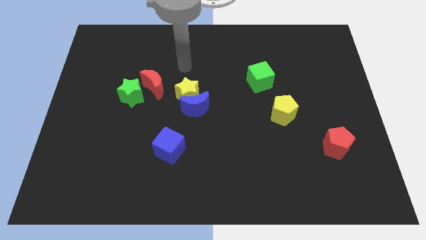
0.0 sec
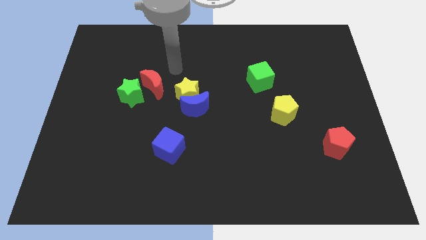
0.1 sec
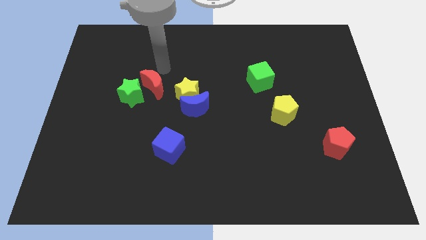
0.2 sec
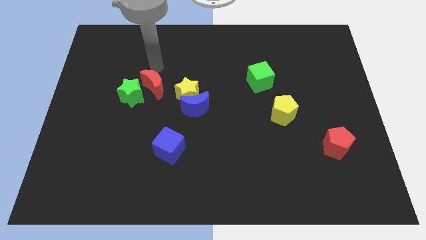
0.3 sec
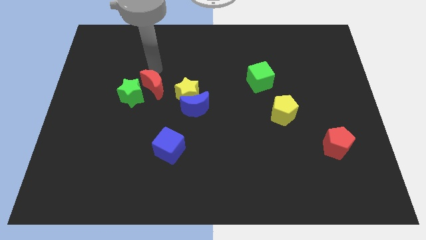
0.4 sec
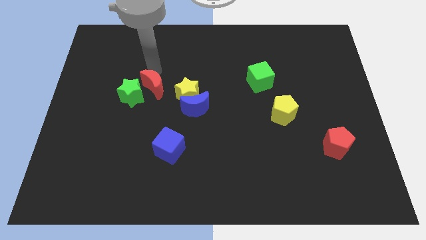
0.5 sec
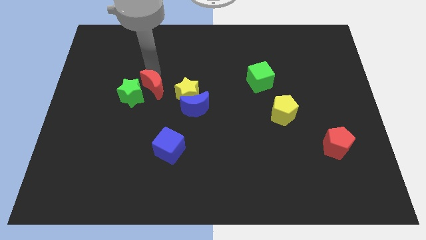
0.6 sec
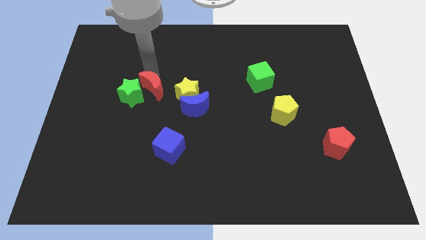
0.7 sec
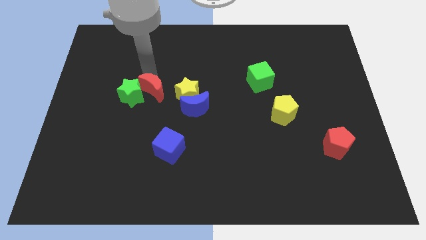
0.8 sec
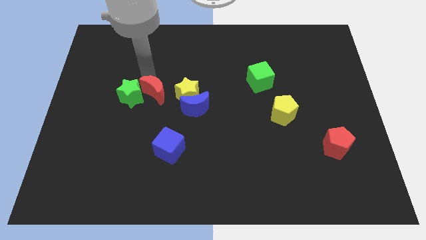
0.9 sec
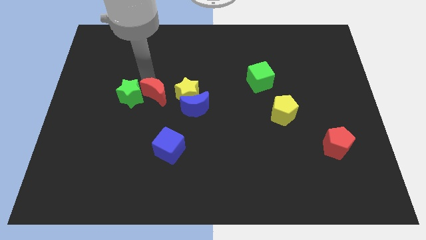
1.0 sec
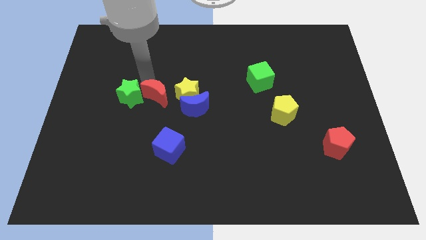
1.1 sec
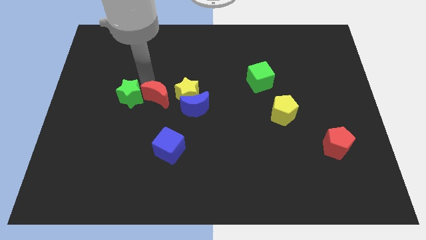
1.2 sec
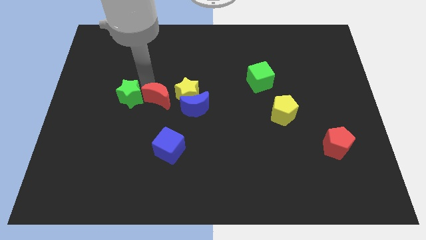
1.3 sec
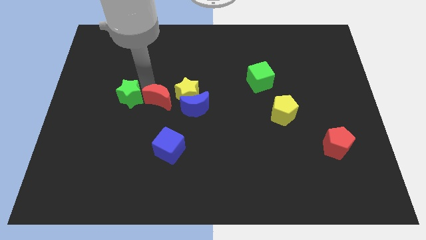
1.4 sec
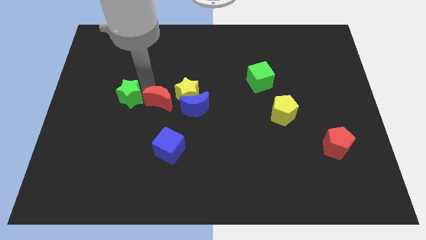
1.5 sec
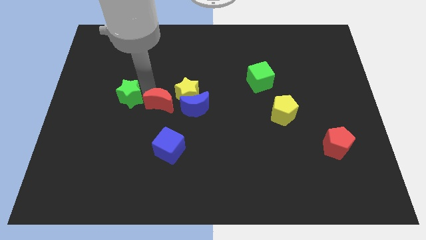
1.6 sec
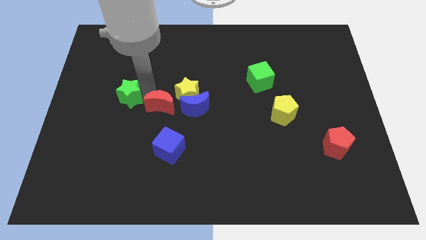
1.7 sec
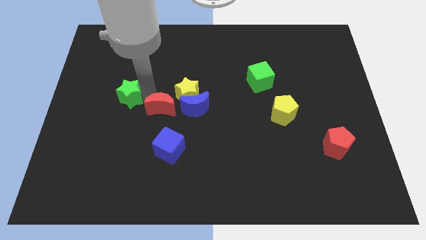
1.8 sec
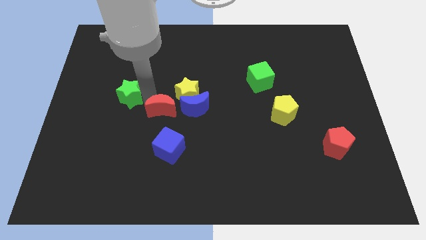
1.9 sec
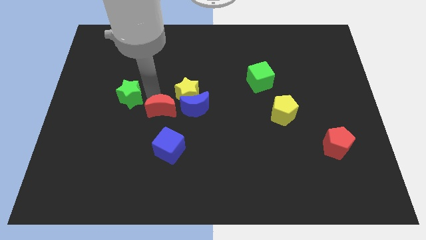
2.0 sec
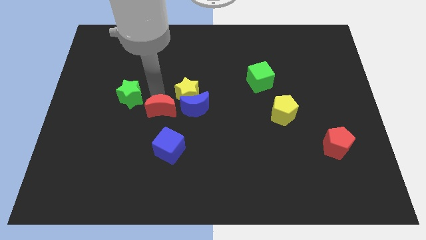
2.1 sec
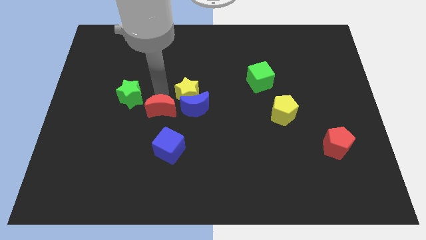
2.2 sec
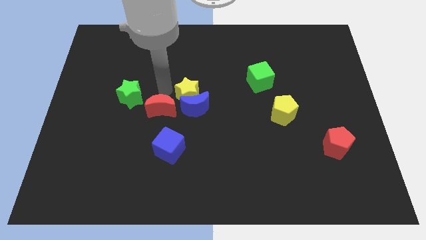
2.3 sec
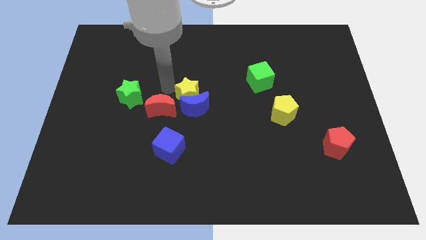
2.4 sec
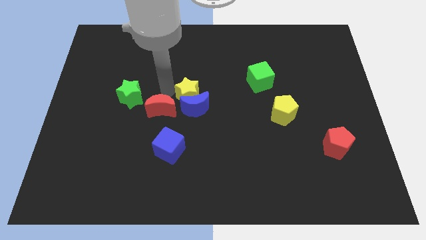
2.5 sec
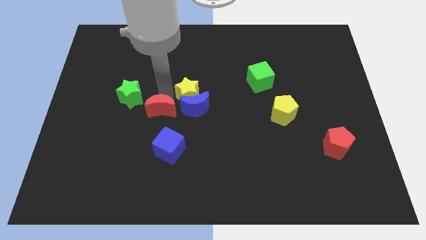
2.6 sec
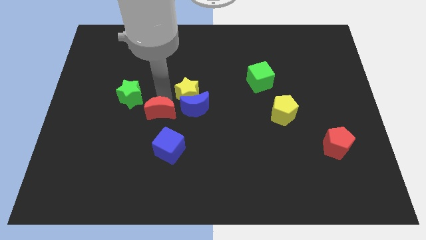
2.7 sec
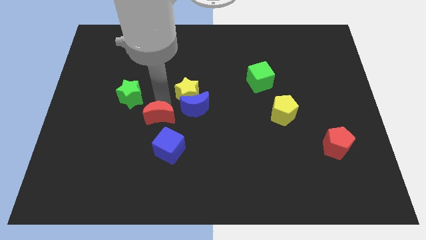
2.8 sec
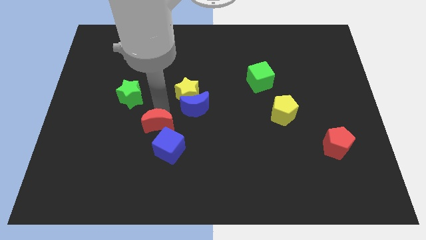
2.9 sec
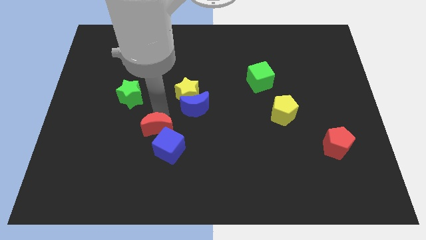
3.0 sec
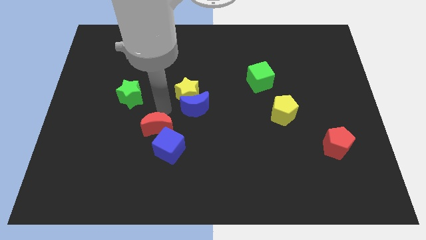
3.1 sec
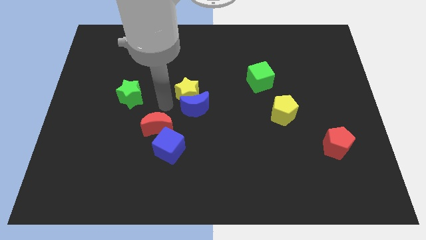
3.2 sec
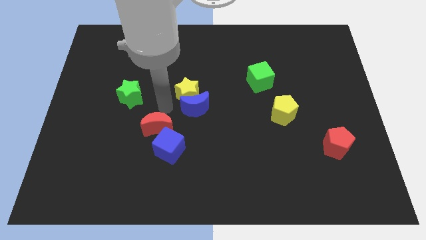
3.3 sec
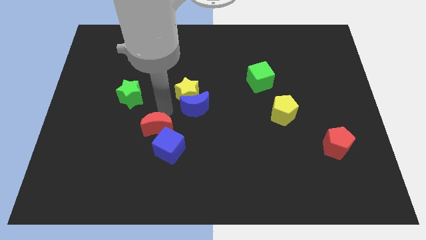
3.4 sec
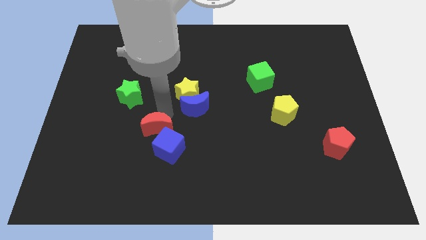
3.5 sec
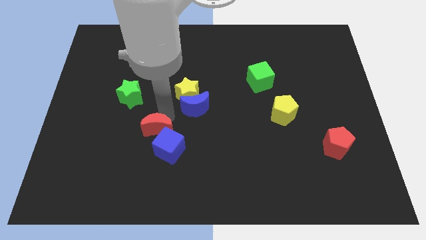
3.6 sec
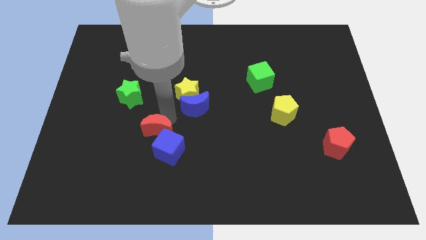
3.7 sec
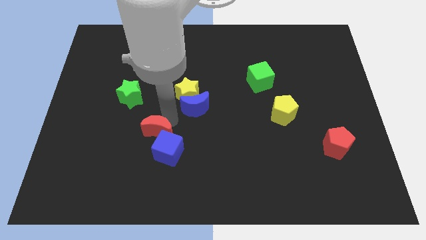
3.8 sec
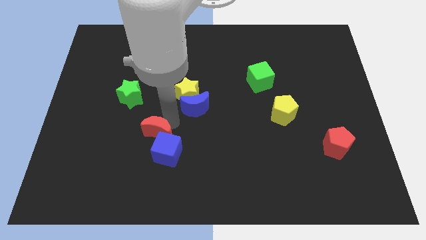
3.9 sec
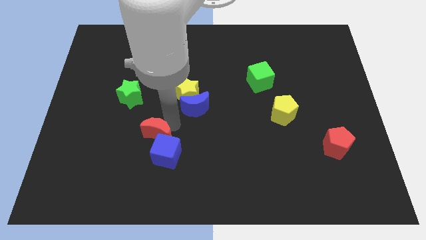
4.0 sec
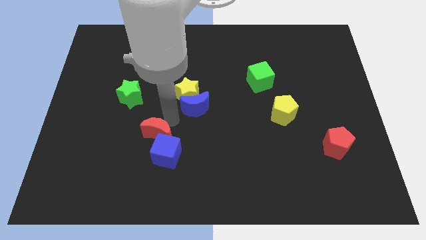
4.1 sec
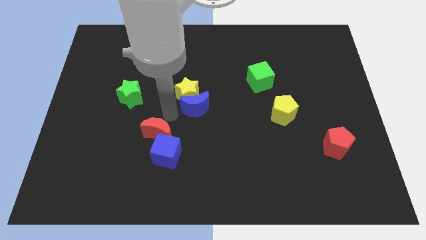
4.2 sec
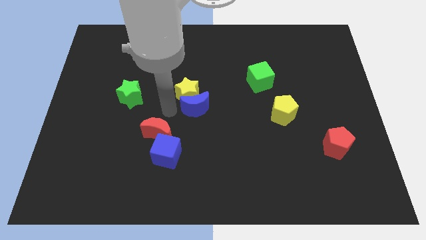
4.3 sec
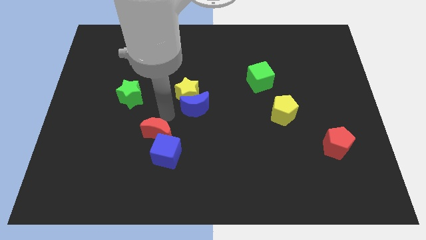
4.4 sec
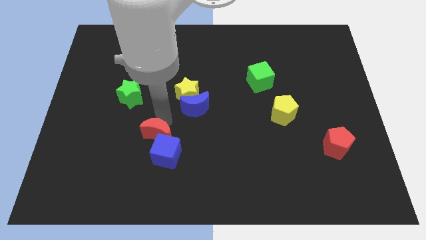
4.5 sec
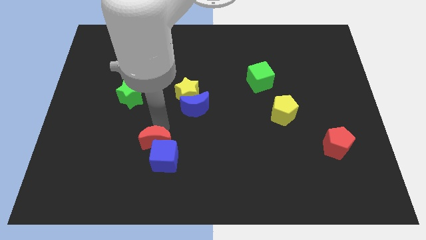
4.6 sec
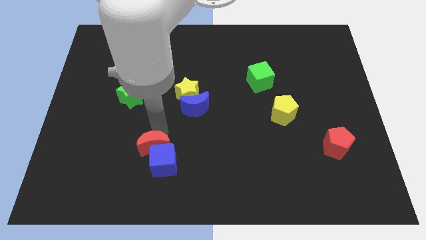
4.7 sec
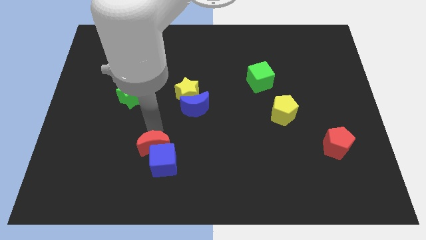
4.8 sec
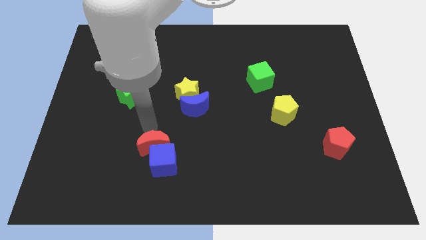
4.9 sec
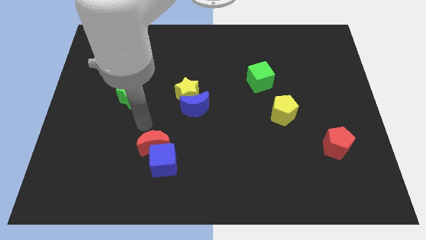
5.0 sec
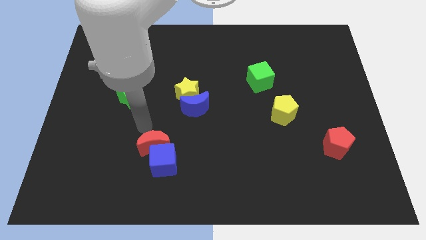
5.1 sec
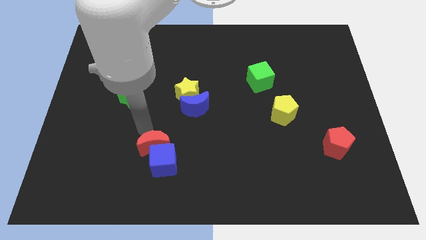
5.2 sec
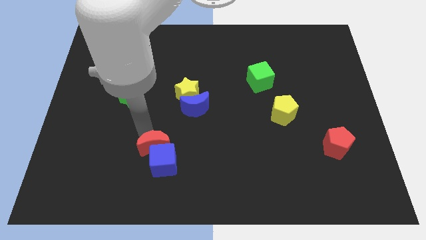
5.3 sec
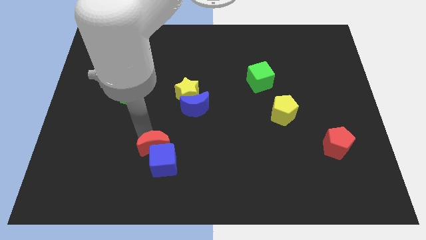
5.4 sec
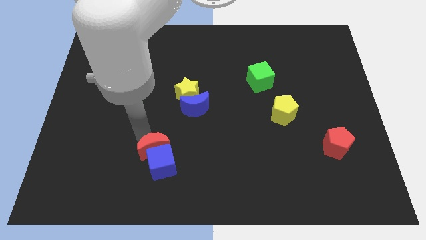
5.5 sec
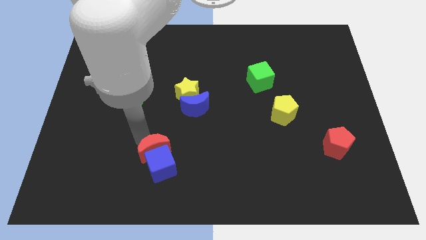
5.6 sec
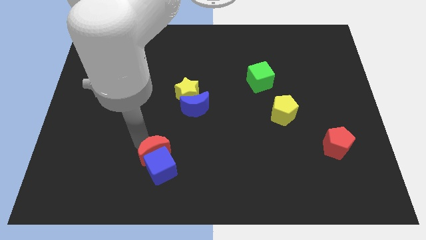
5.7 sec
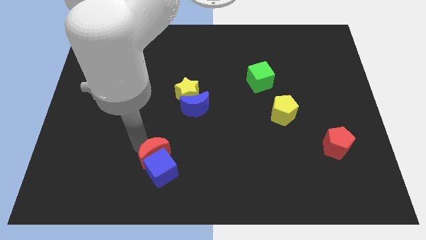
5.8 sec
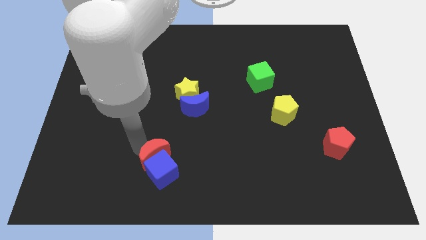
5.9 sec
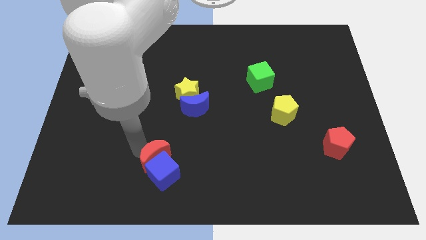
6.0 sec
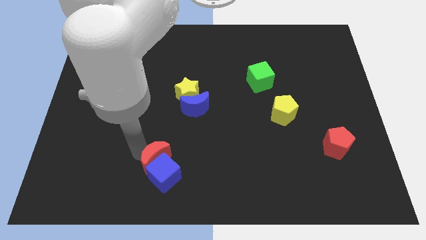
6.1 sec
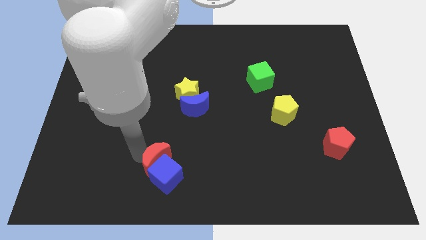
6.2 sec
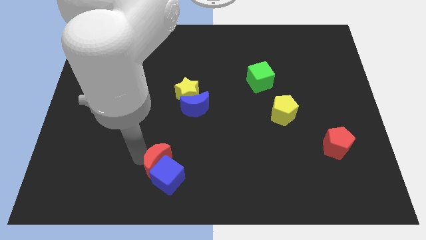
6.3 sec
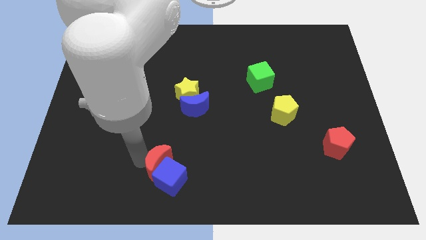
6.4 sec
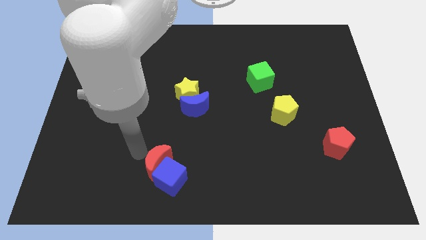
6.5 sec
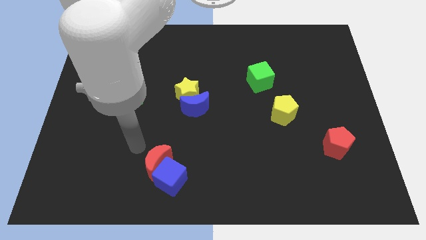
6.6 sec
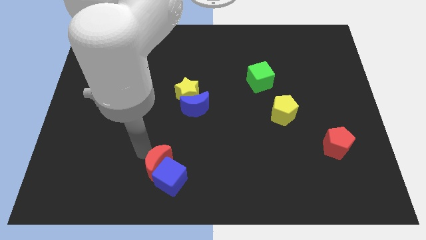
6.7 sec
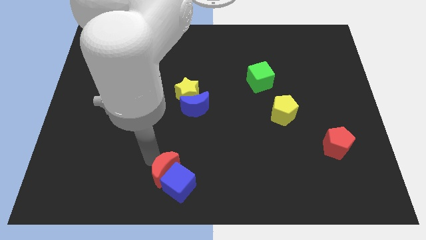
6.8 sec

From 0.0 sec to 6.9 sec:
move the red moon to the bottom

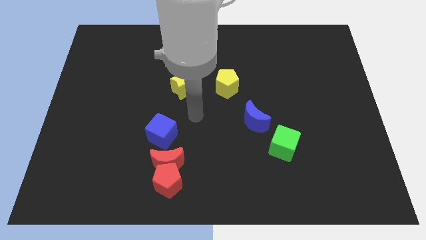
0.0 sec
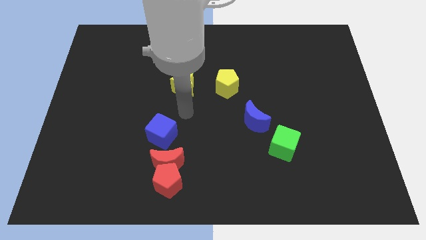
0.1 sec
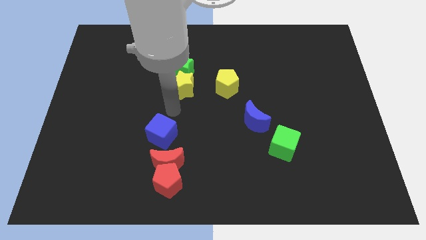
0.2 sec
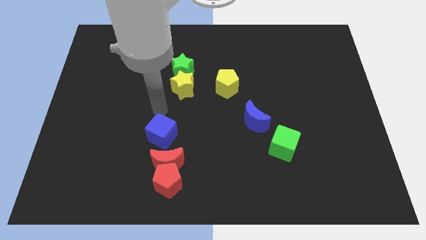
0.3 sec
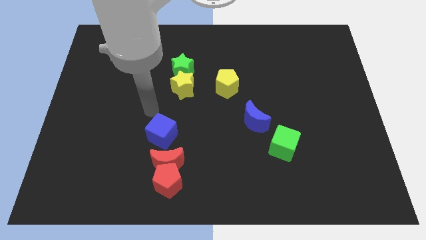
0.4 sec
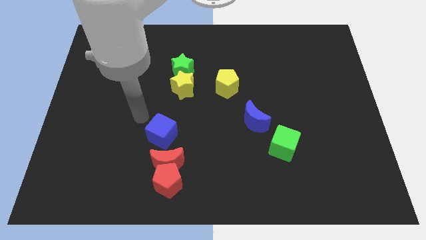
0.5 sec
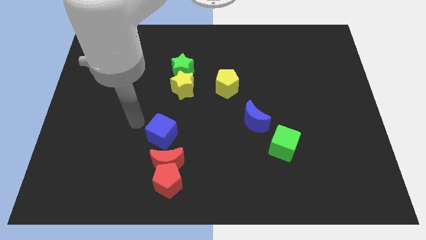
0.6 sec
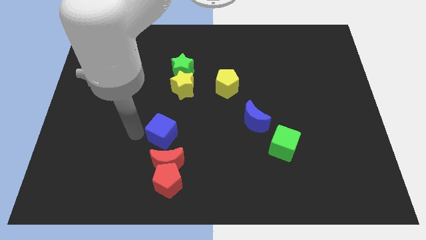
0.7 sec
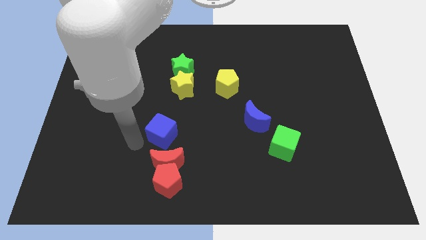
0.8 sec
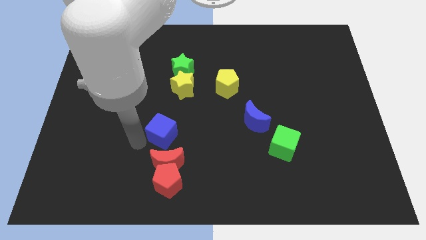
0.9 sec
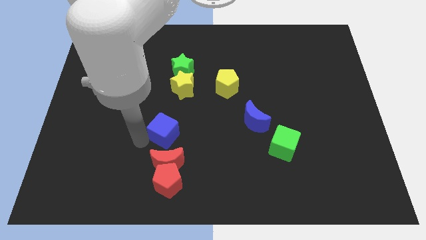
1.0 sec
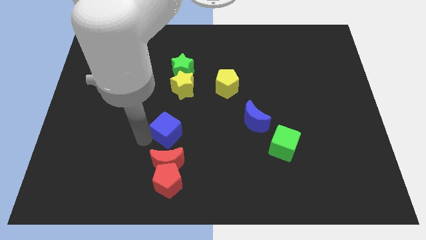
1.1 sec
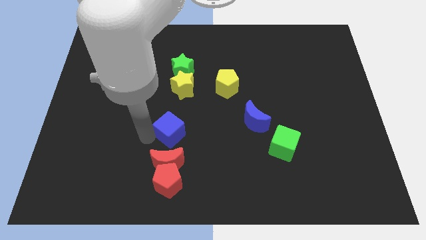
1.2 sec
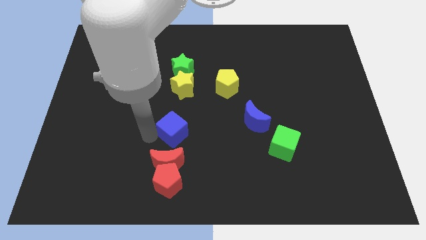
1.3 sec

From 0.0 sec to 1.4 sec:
push the blue cube to the center of the board
